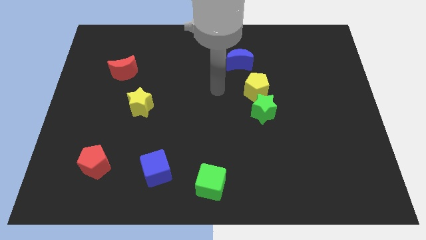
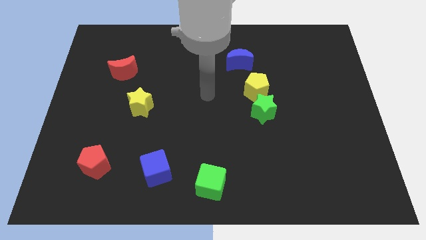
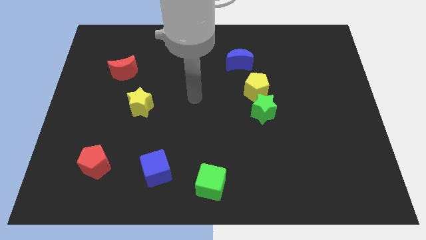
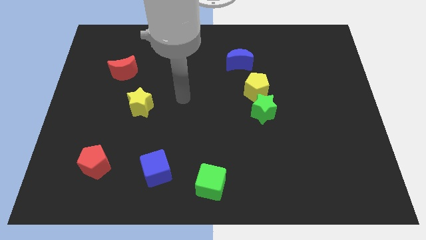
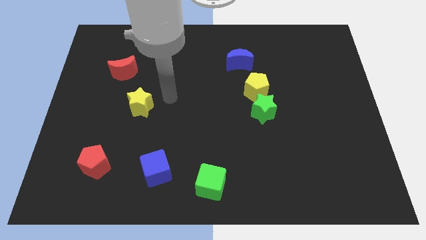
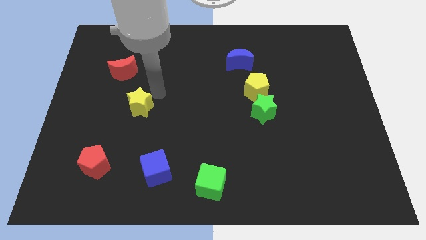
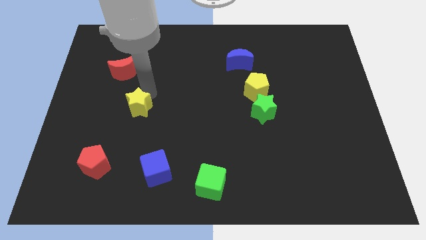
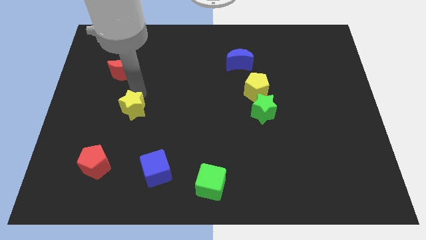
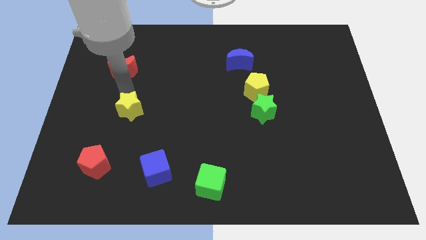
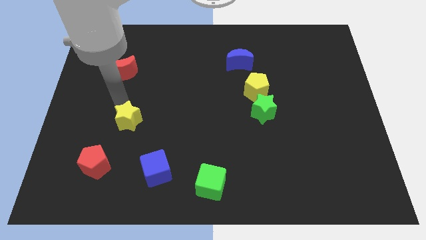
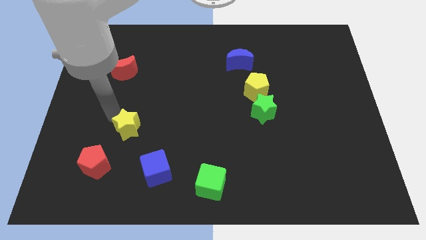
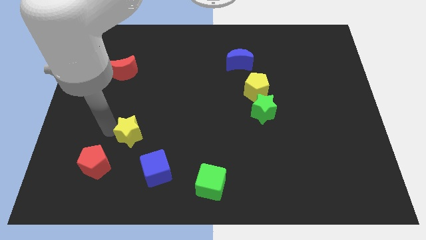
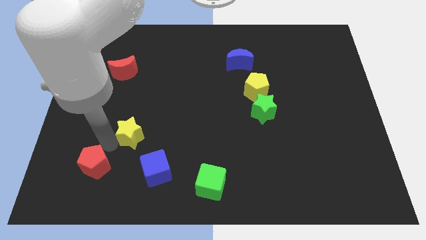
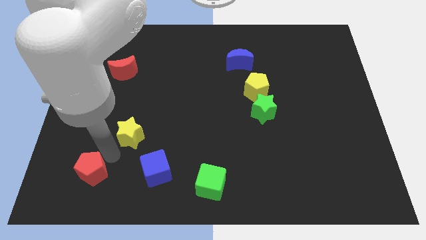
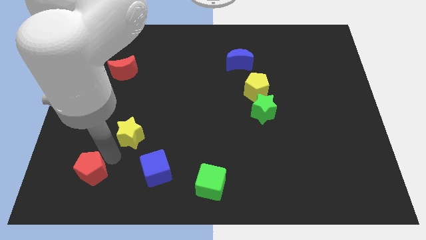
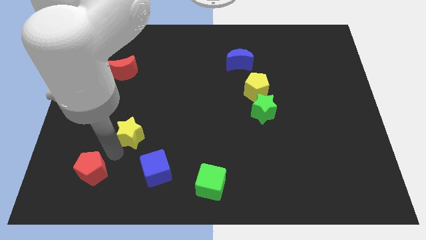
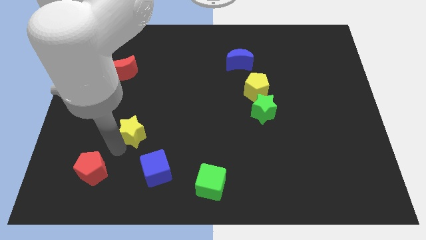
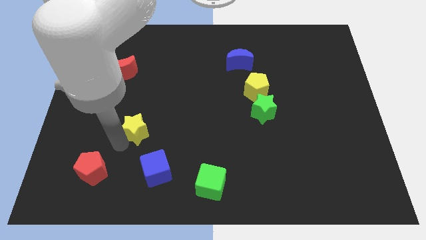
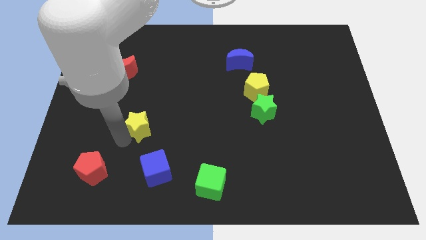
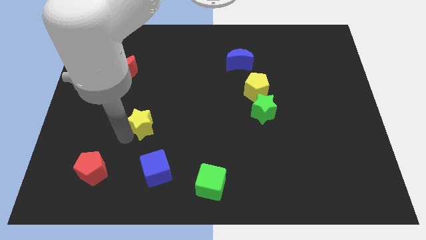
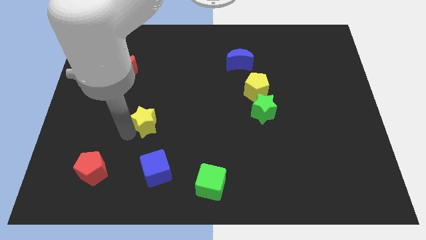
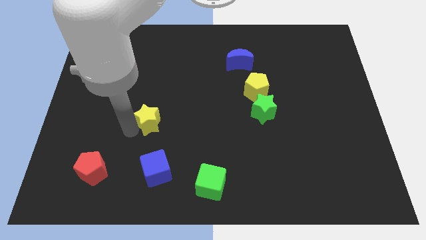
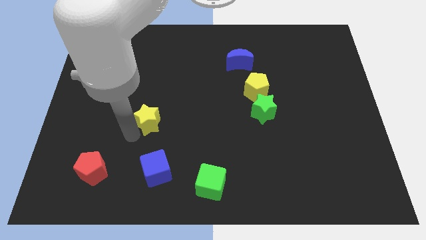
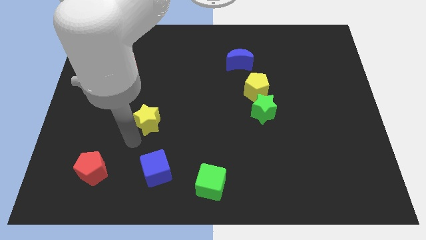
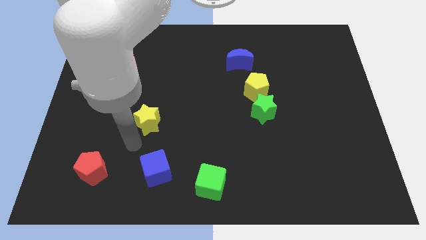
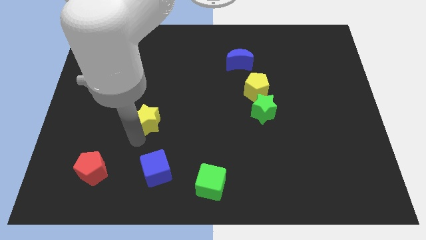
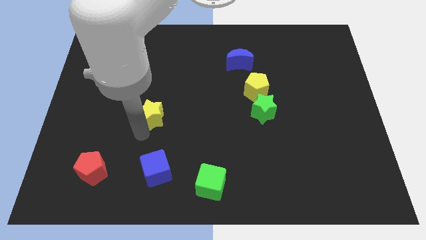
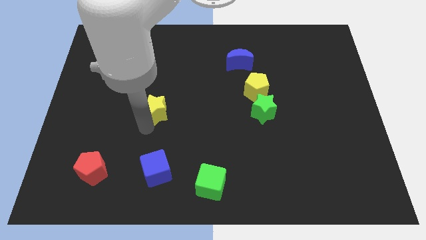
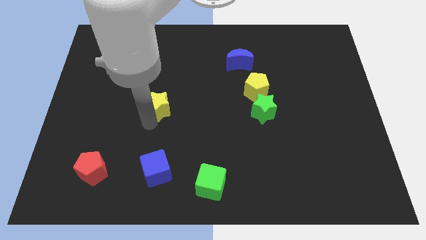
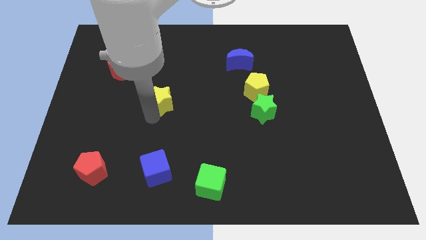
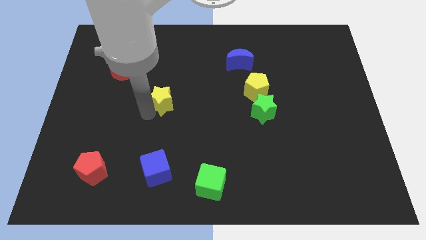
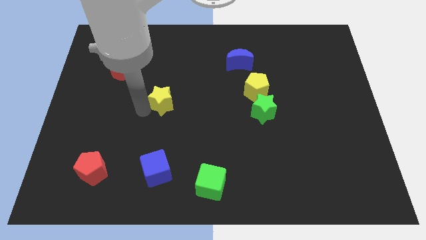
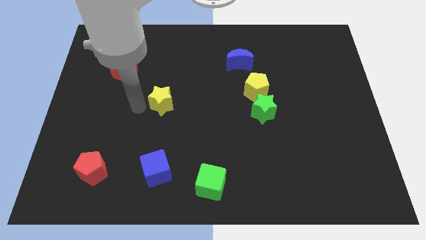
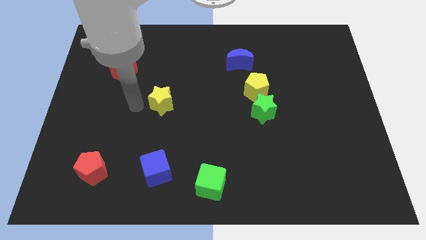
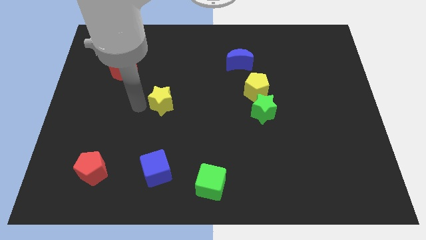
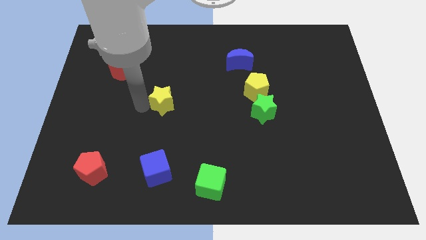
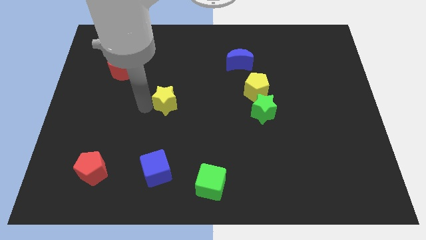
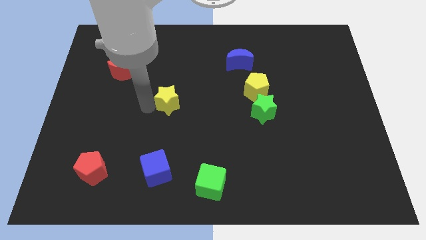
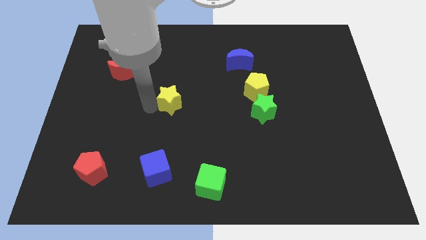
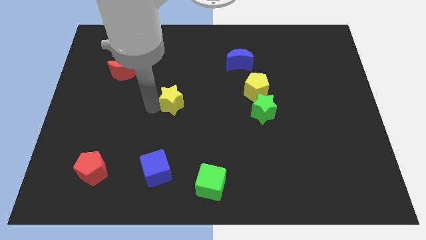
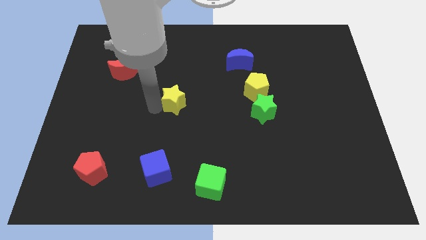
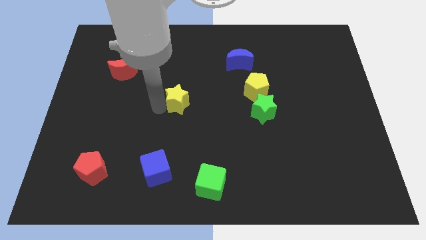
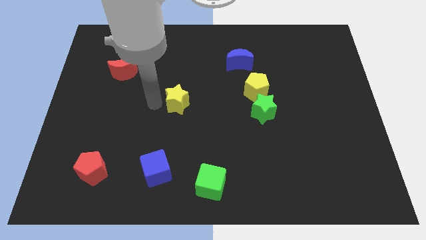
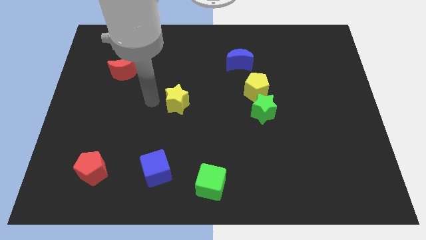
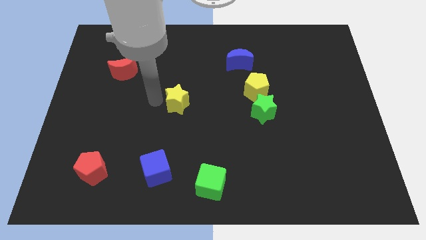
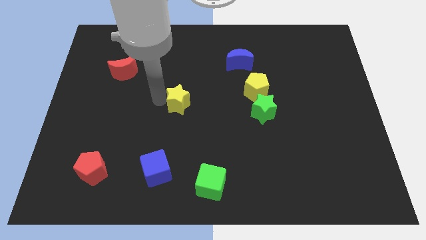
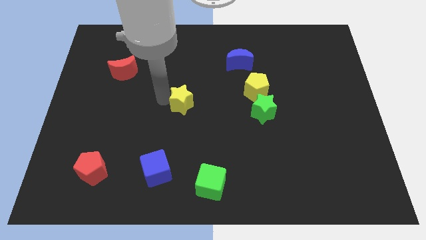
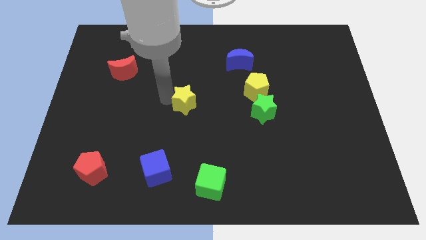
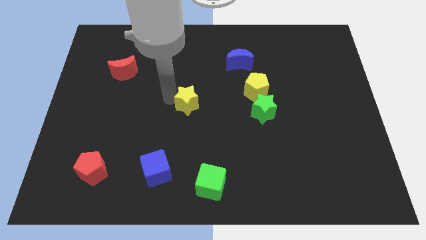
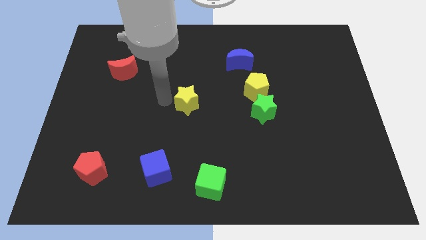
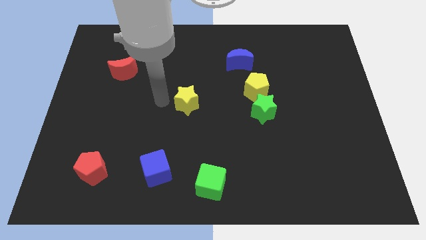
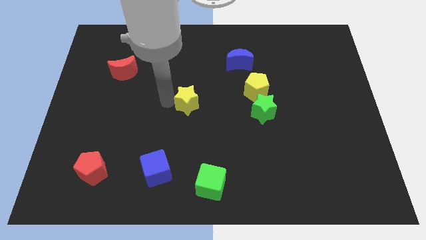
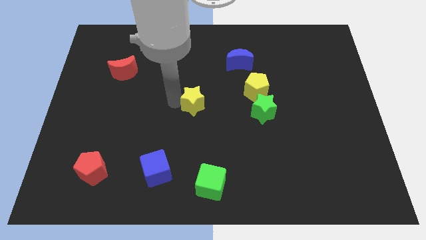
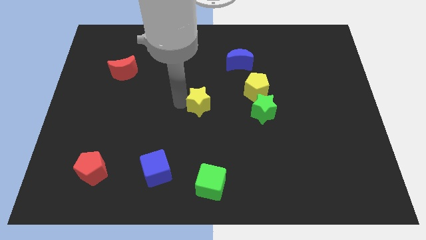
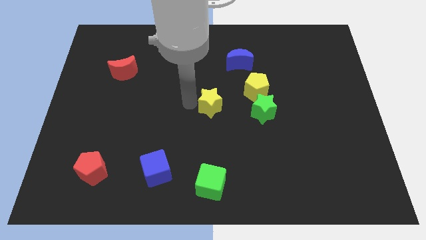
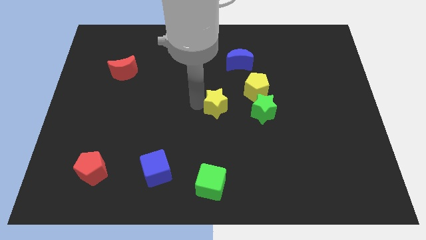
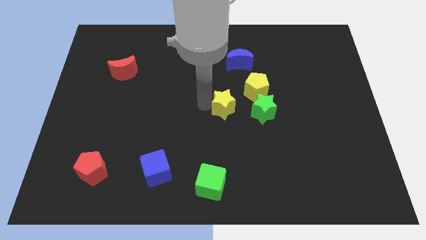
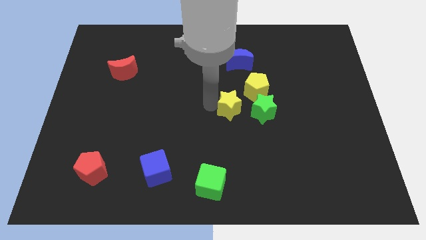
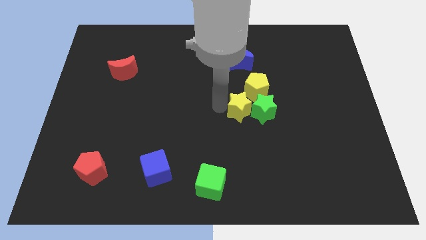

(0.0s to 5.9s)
slide the yellow star close to the green star
